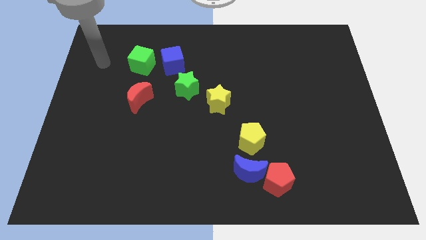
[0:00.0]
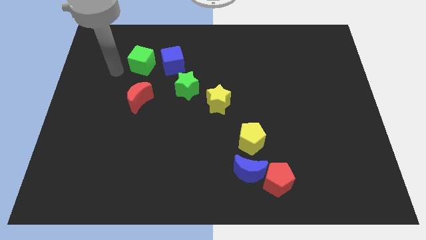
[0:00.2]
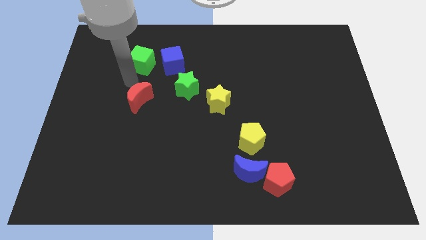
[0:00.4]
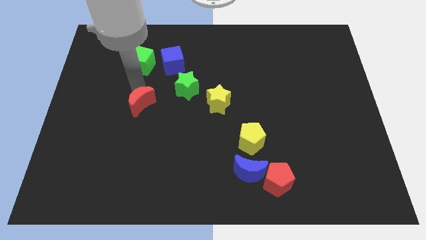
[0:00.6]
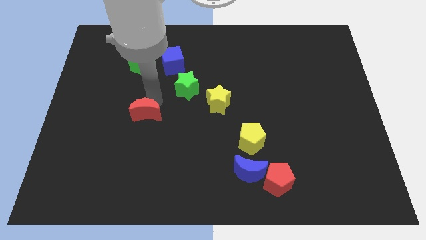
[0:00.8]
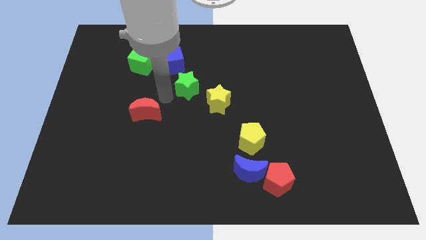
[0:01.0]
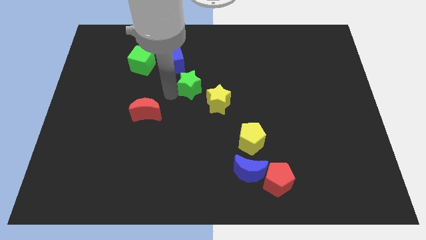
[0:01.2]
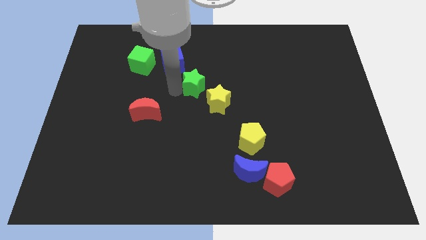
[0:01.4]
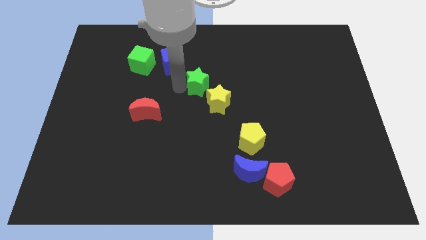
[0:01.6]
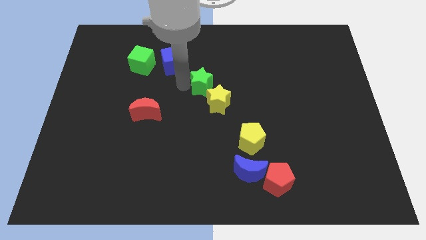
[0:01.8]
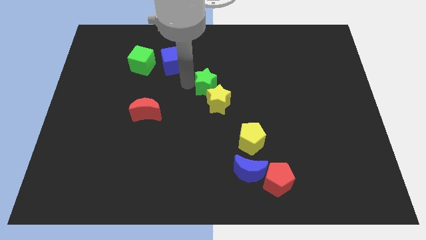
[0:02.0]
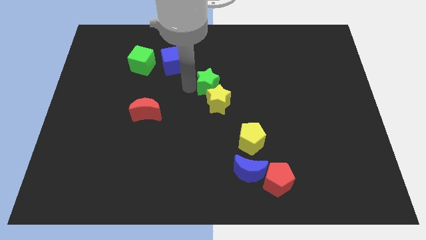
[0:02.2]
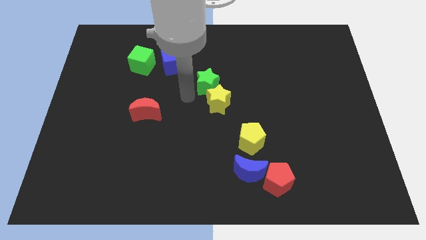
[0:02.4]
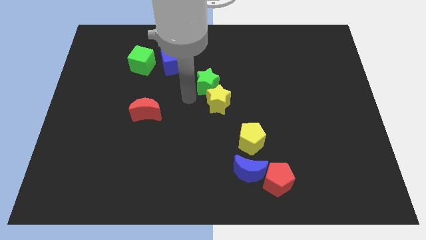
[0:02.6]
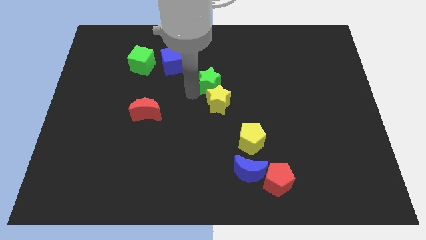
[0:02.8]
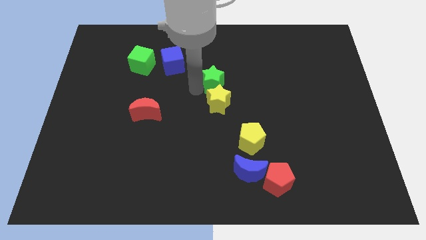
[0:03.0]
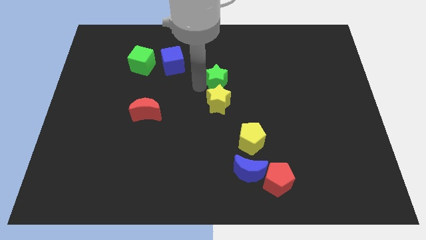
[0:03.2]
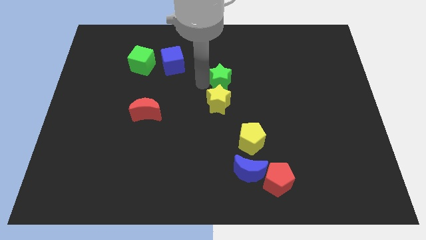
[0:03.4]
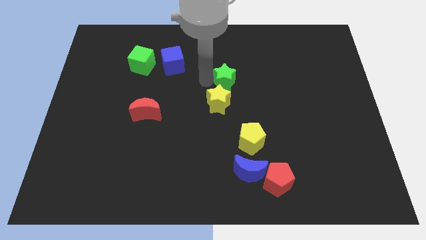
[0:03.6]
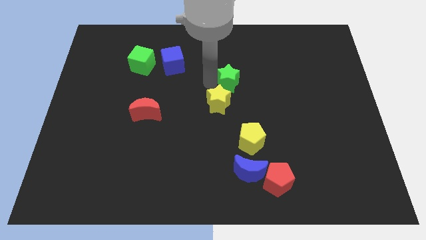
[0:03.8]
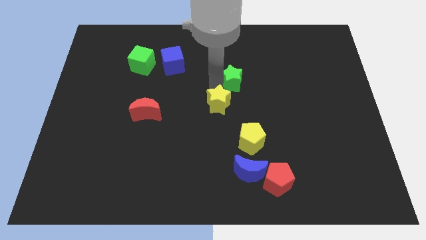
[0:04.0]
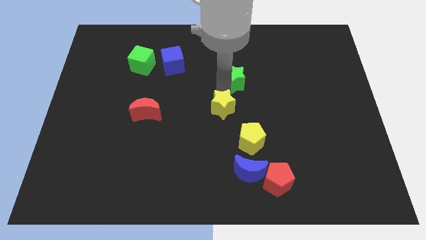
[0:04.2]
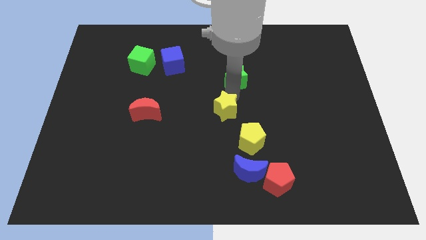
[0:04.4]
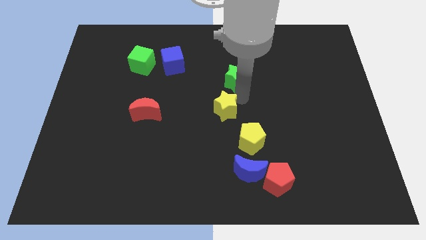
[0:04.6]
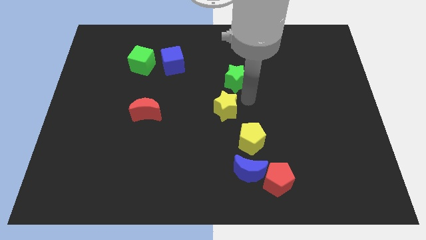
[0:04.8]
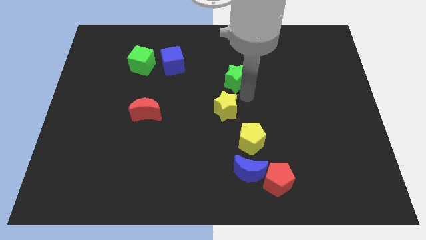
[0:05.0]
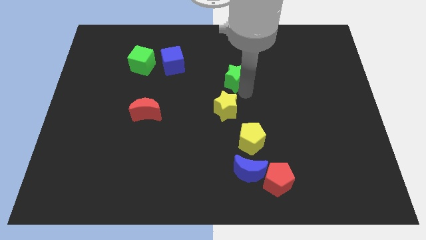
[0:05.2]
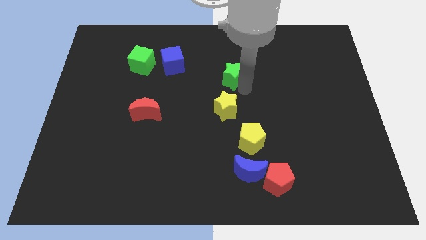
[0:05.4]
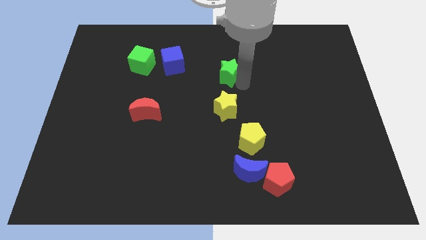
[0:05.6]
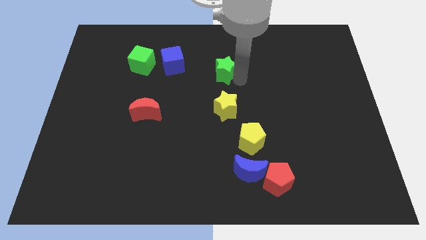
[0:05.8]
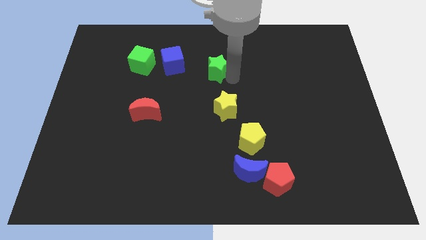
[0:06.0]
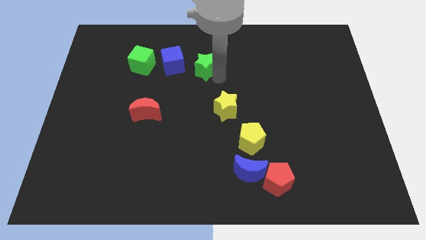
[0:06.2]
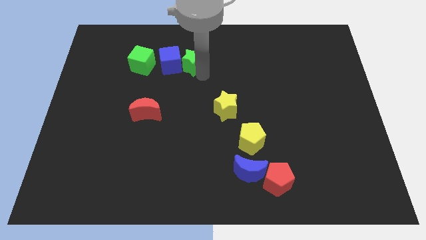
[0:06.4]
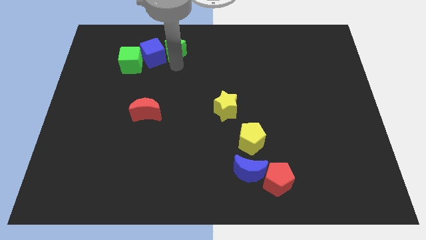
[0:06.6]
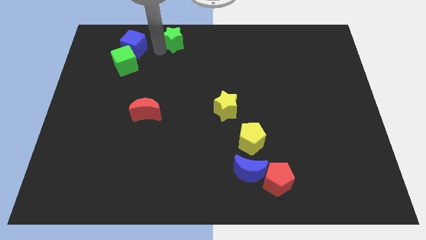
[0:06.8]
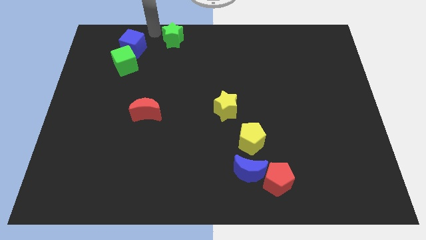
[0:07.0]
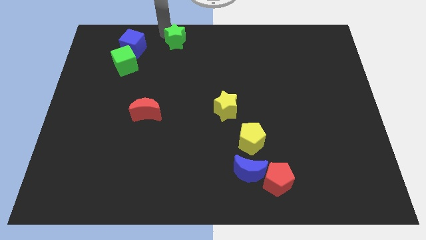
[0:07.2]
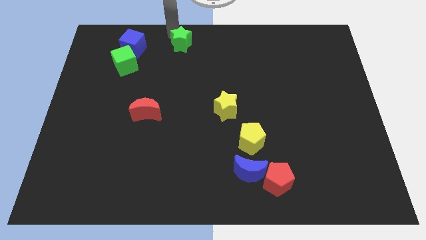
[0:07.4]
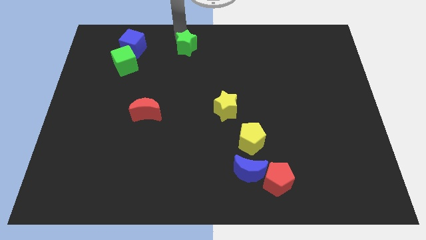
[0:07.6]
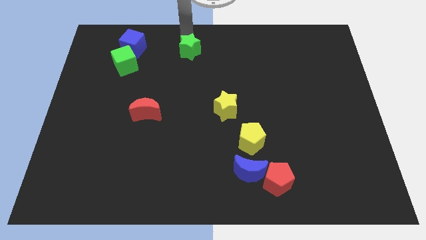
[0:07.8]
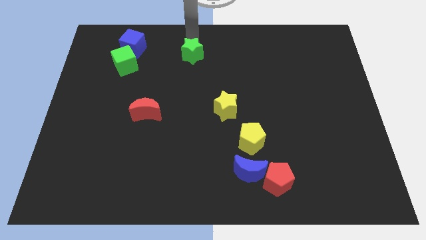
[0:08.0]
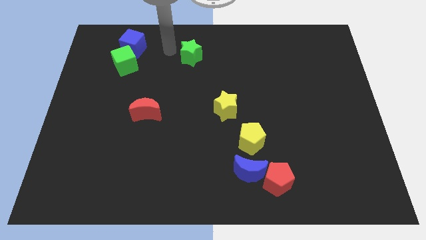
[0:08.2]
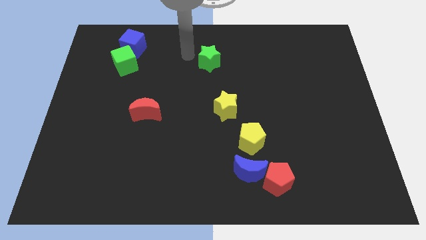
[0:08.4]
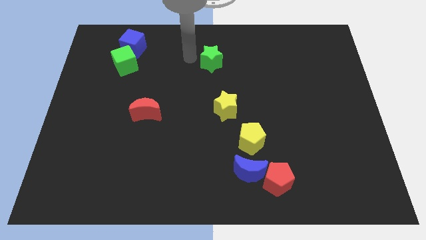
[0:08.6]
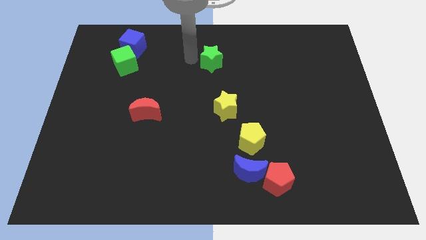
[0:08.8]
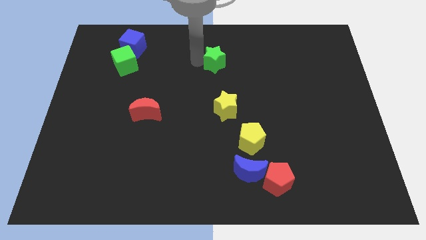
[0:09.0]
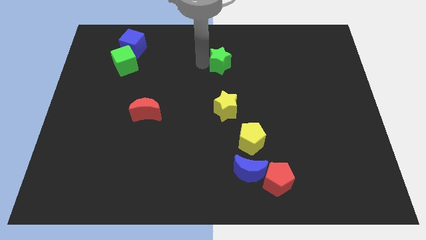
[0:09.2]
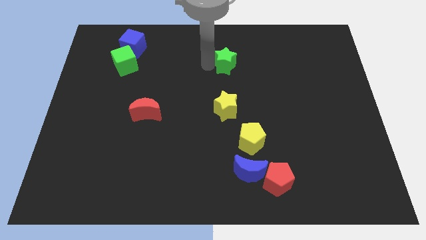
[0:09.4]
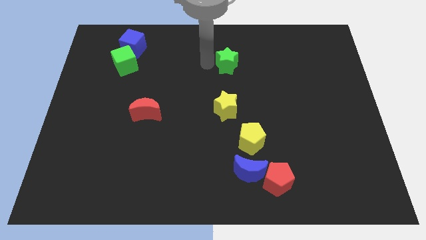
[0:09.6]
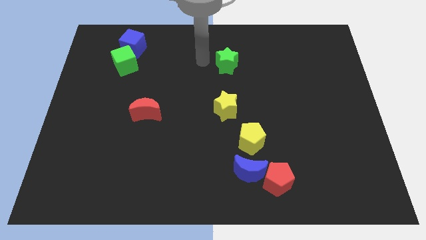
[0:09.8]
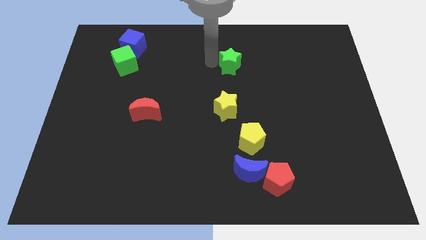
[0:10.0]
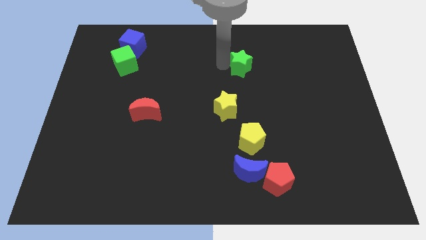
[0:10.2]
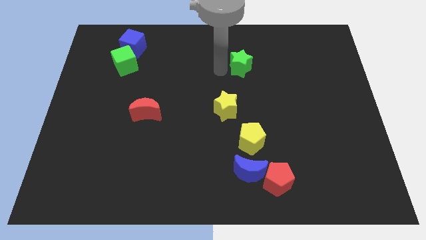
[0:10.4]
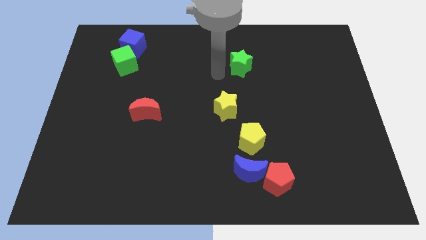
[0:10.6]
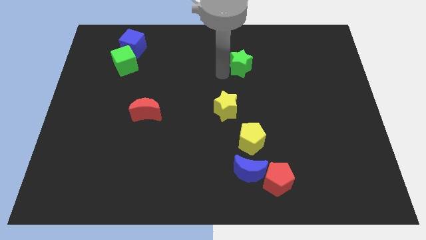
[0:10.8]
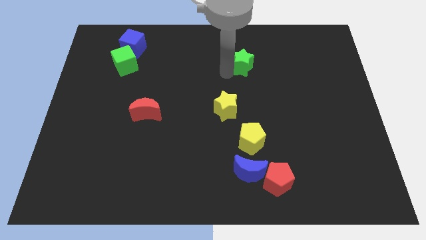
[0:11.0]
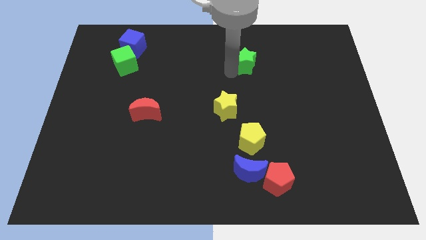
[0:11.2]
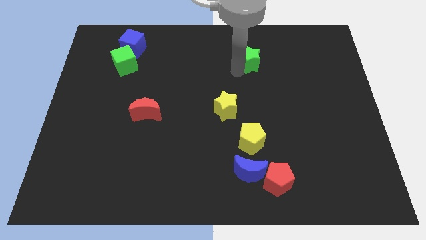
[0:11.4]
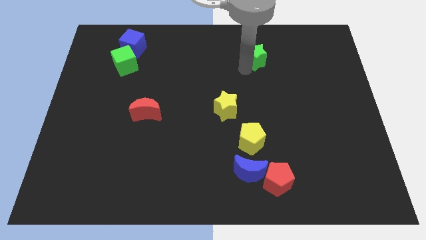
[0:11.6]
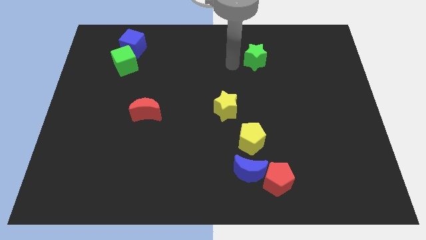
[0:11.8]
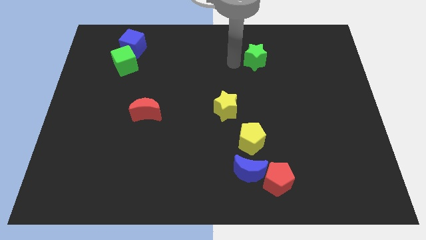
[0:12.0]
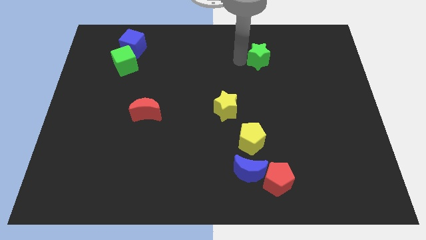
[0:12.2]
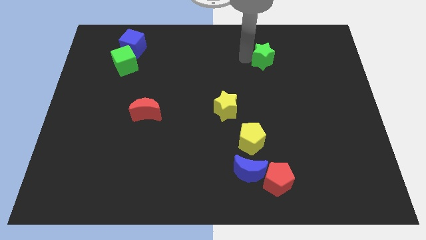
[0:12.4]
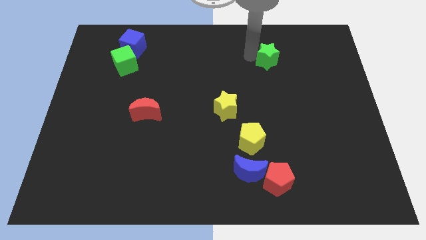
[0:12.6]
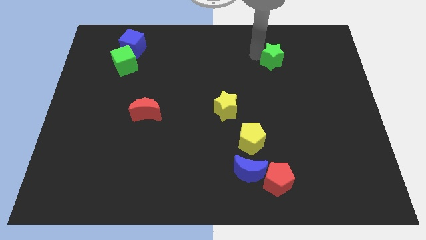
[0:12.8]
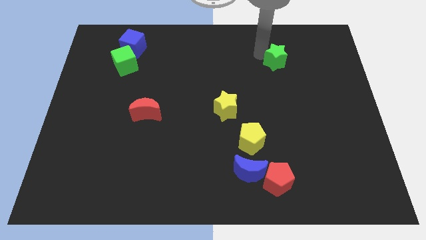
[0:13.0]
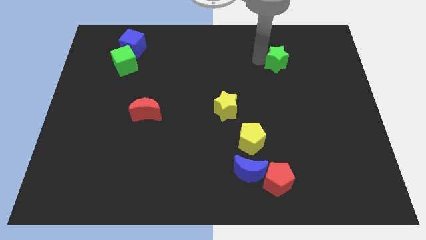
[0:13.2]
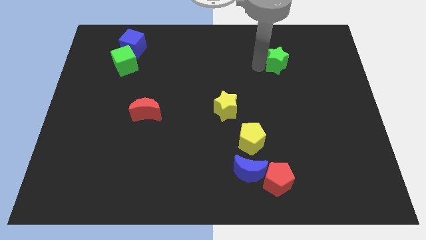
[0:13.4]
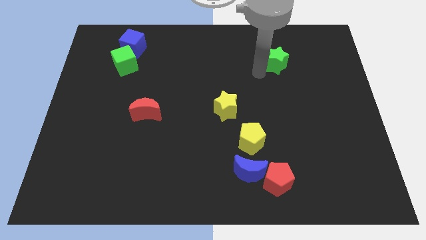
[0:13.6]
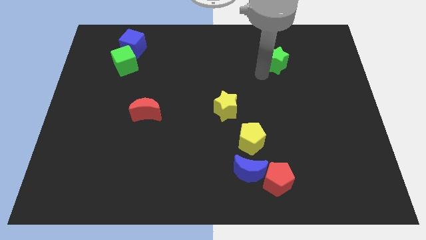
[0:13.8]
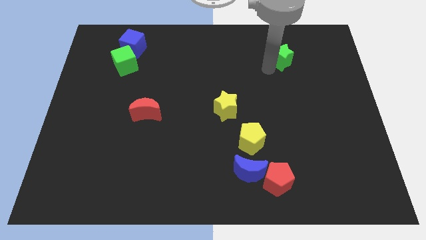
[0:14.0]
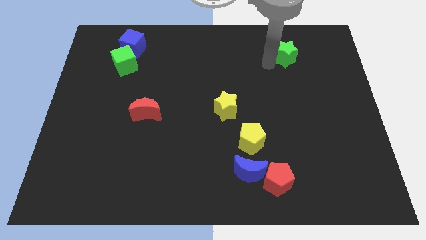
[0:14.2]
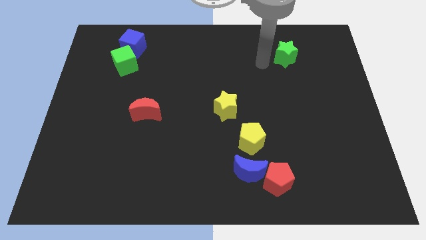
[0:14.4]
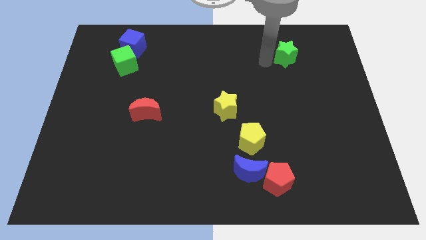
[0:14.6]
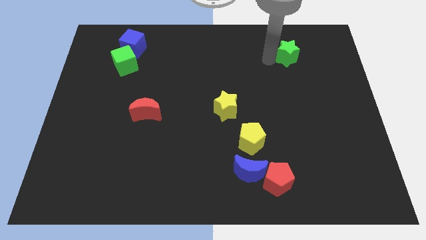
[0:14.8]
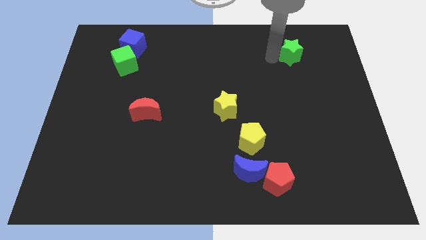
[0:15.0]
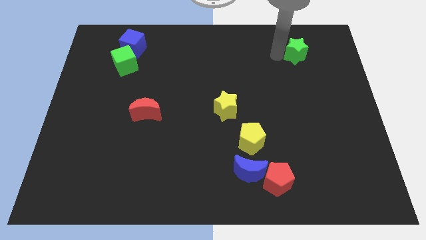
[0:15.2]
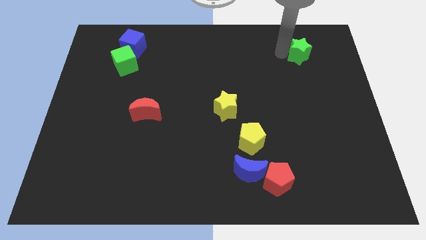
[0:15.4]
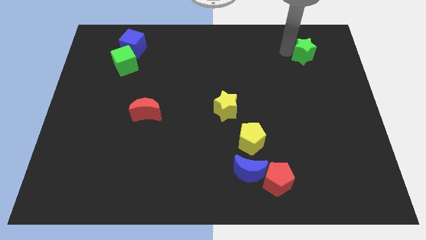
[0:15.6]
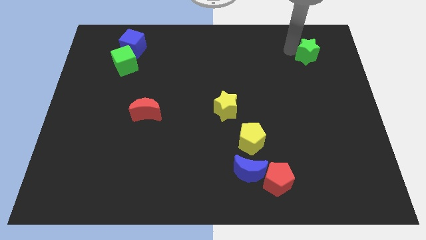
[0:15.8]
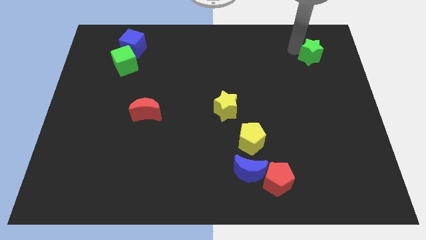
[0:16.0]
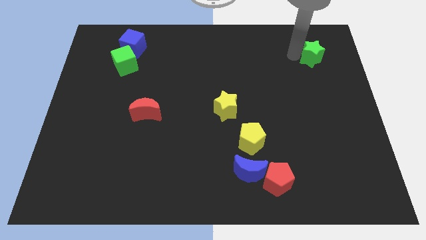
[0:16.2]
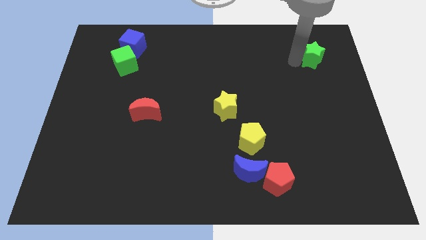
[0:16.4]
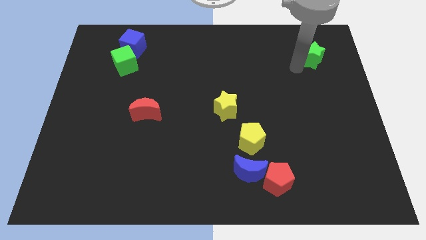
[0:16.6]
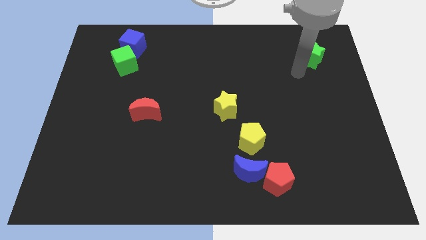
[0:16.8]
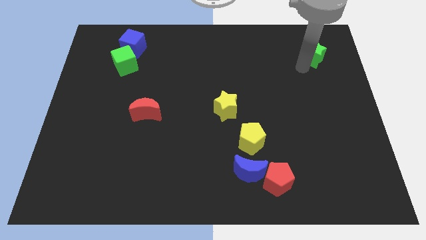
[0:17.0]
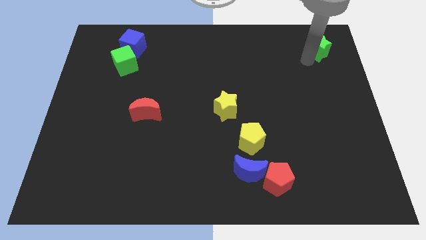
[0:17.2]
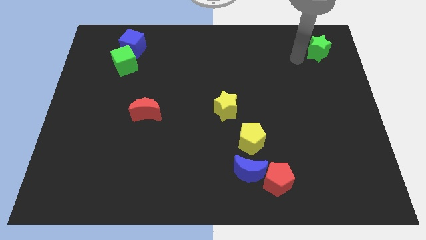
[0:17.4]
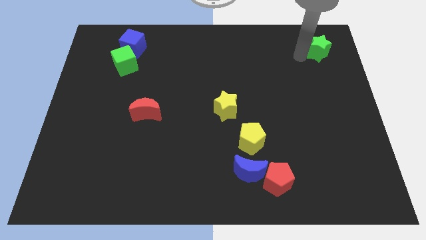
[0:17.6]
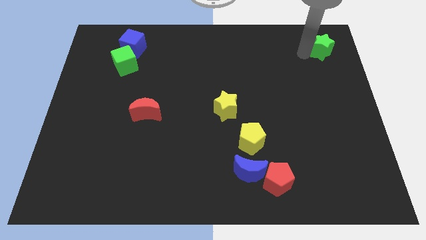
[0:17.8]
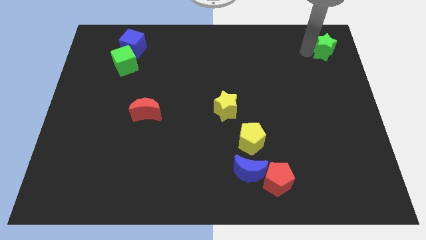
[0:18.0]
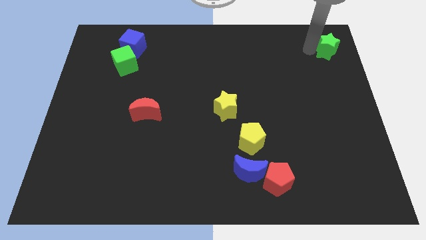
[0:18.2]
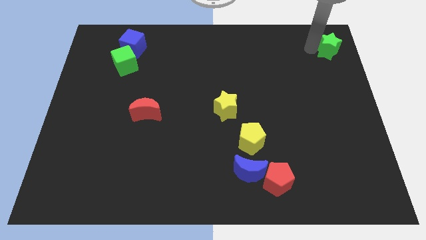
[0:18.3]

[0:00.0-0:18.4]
move the green star to the upper right corner
